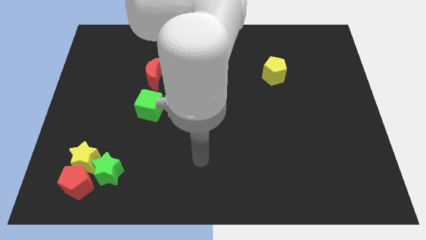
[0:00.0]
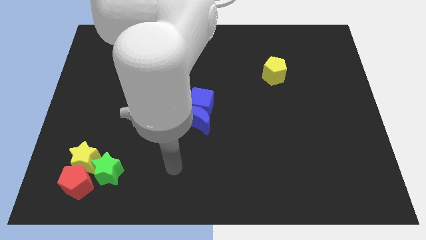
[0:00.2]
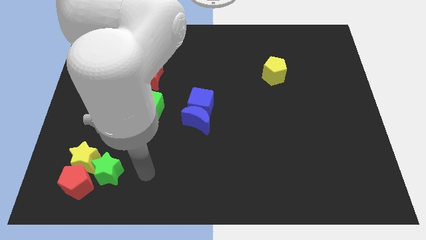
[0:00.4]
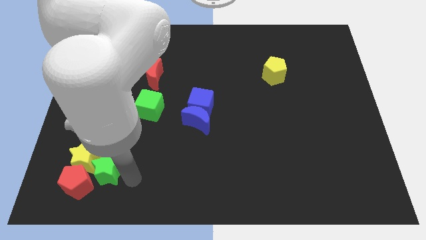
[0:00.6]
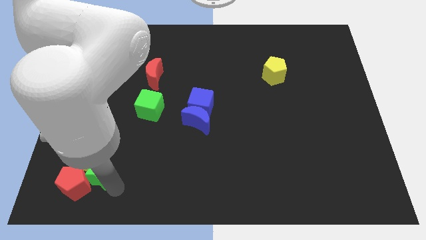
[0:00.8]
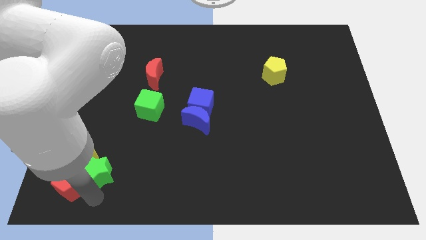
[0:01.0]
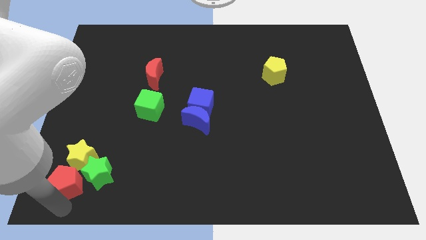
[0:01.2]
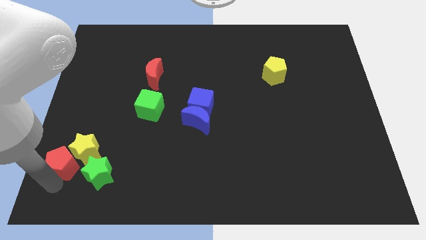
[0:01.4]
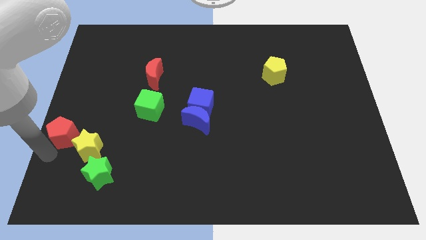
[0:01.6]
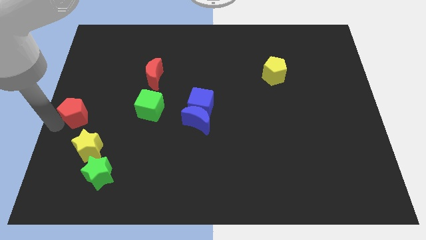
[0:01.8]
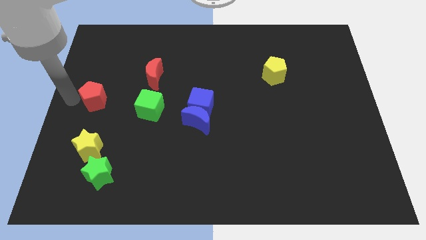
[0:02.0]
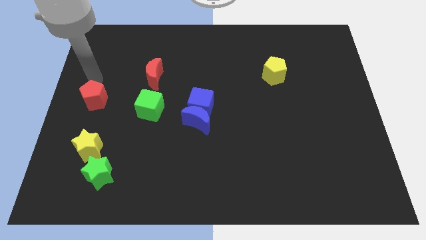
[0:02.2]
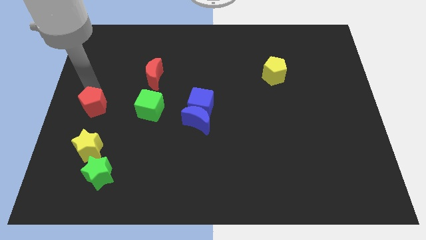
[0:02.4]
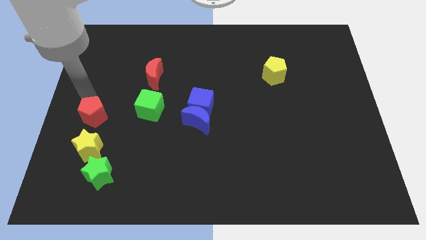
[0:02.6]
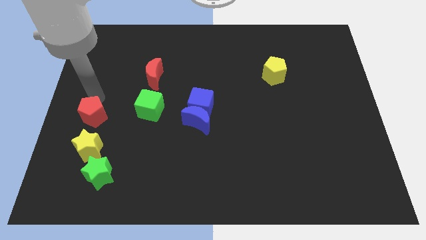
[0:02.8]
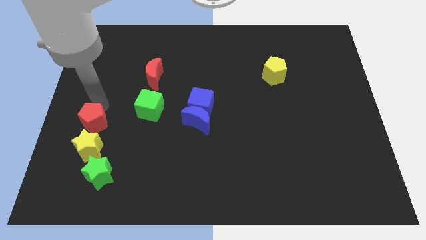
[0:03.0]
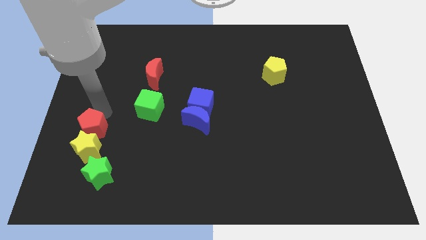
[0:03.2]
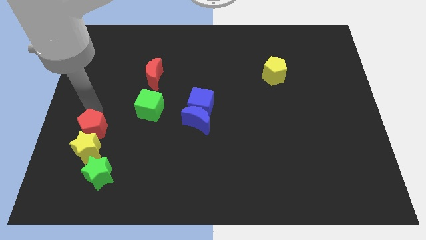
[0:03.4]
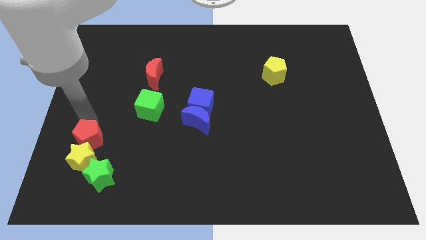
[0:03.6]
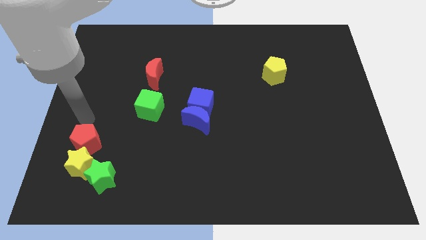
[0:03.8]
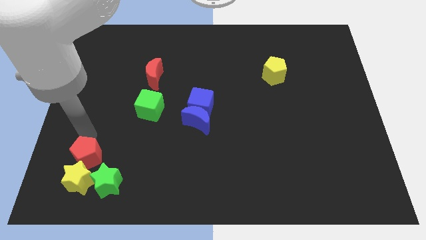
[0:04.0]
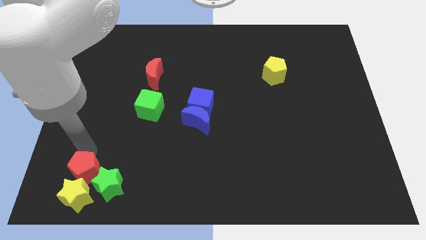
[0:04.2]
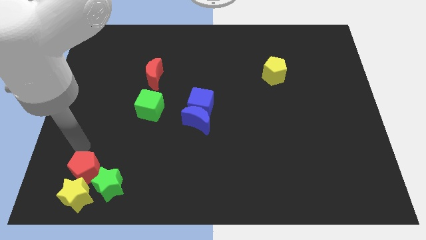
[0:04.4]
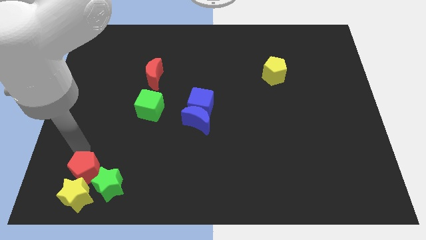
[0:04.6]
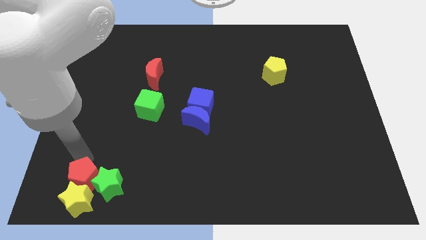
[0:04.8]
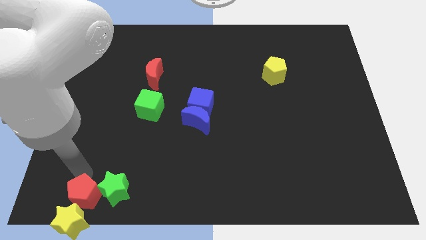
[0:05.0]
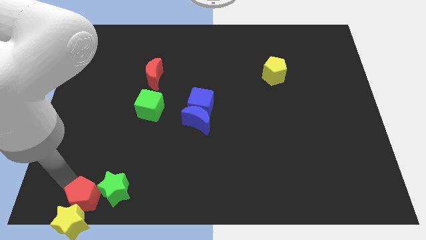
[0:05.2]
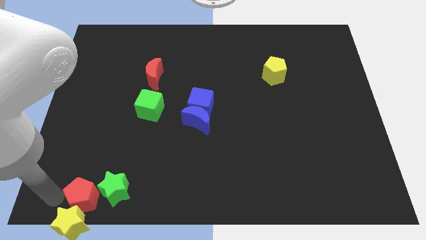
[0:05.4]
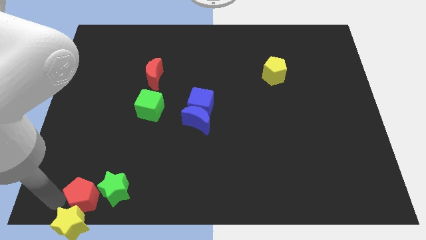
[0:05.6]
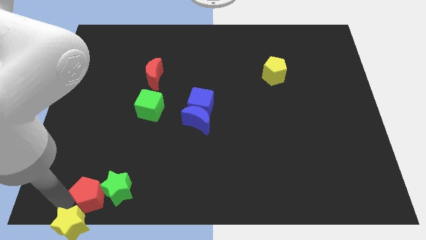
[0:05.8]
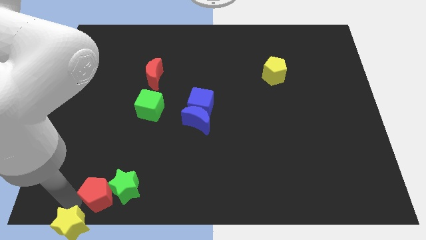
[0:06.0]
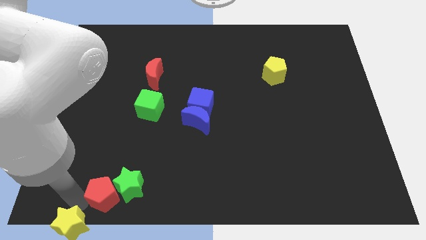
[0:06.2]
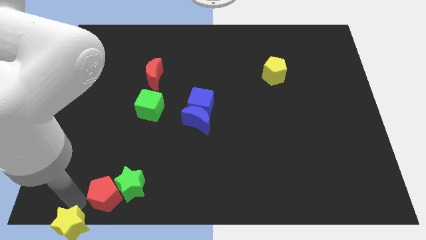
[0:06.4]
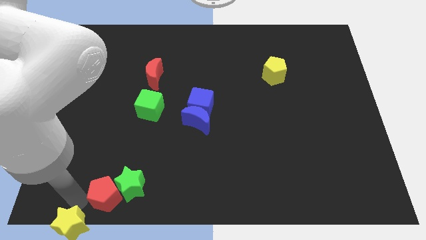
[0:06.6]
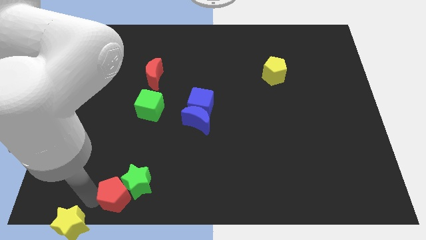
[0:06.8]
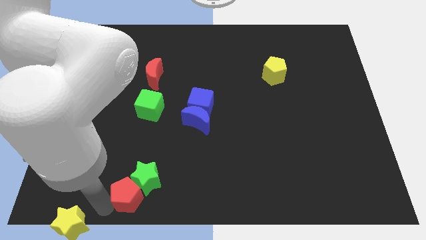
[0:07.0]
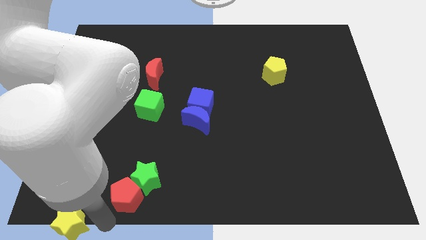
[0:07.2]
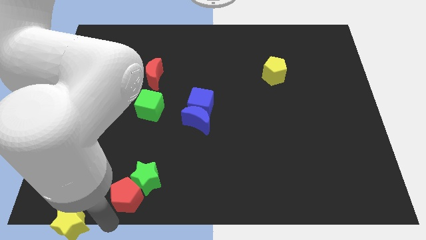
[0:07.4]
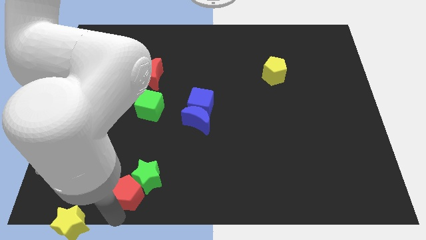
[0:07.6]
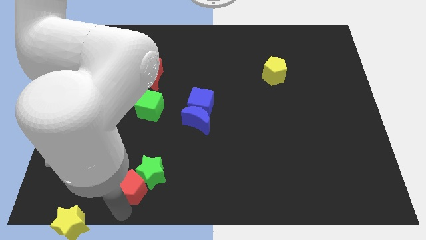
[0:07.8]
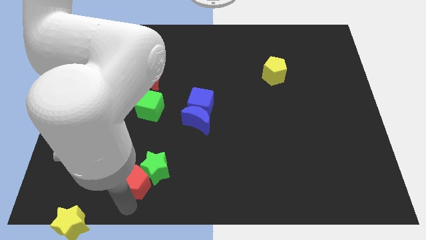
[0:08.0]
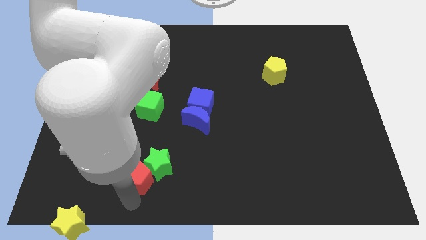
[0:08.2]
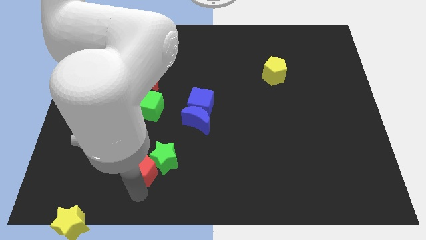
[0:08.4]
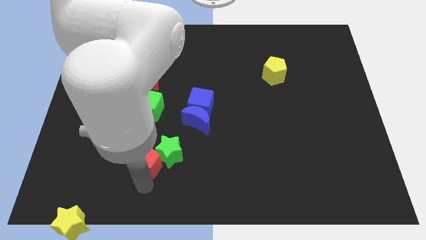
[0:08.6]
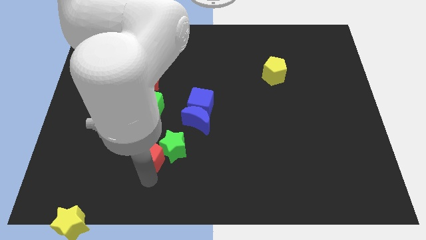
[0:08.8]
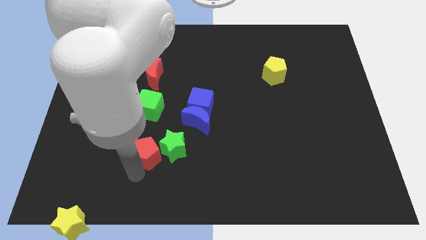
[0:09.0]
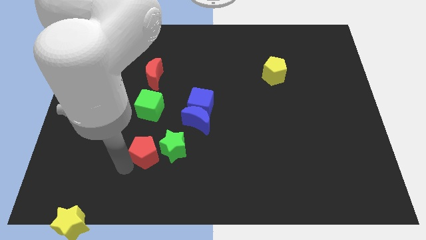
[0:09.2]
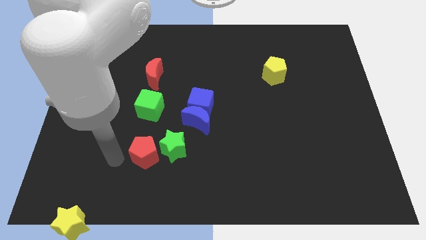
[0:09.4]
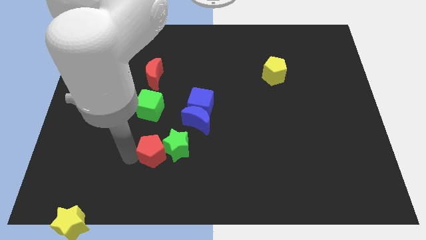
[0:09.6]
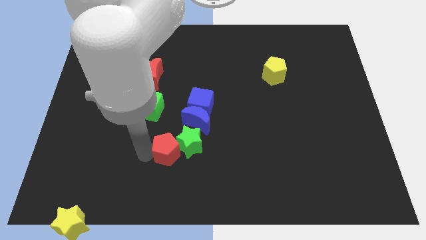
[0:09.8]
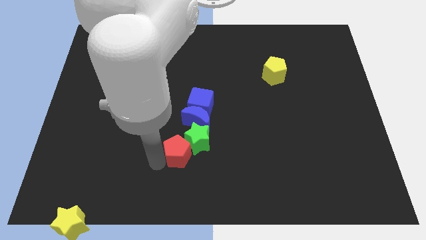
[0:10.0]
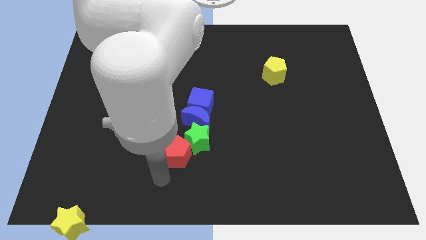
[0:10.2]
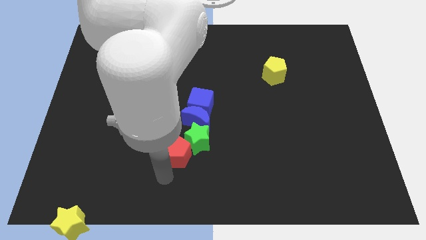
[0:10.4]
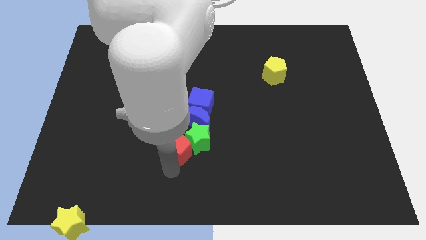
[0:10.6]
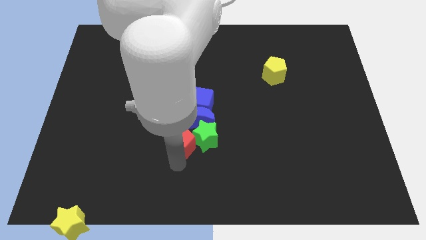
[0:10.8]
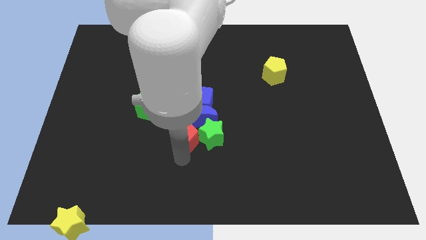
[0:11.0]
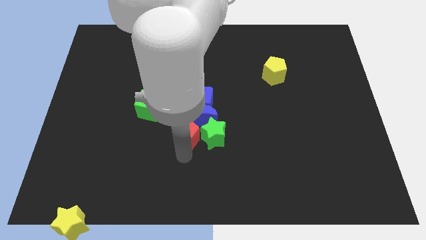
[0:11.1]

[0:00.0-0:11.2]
push the red pentagon next to the blue moon

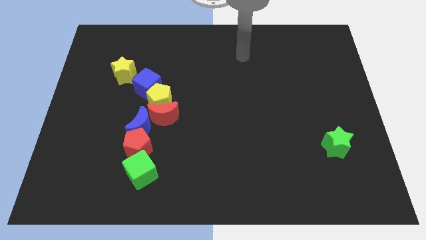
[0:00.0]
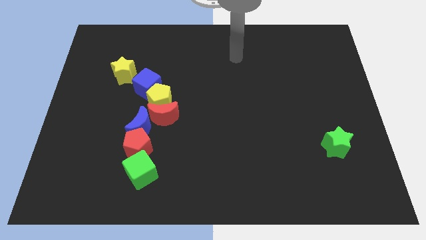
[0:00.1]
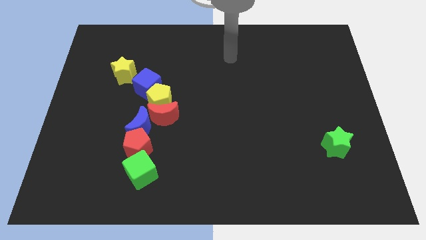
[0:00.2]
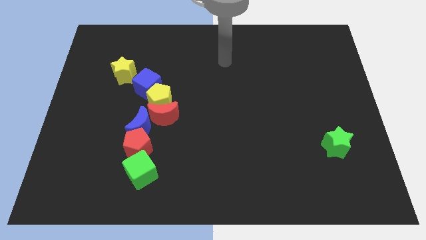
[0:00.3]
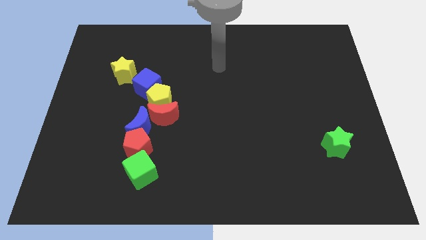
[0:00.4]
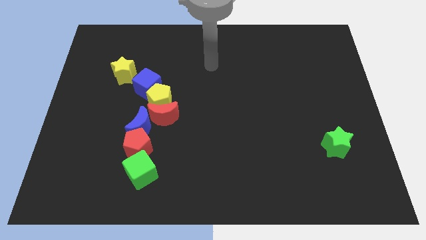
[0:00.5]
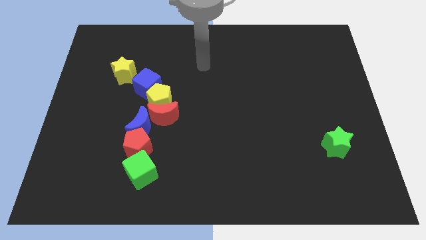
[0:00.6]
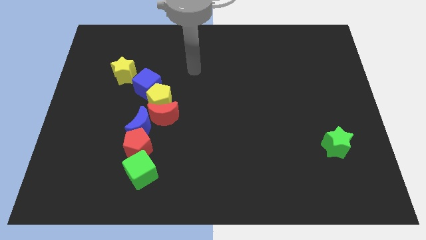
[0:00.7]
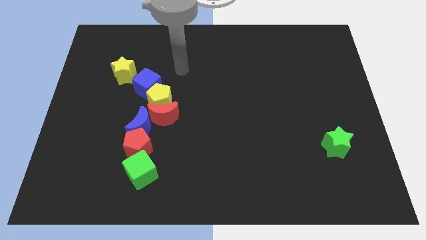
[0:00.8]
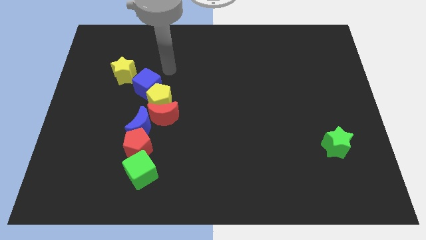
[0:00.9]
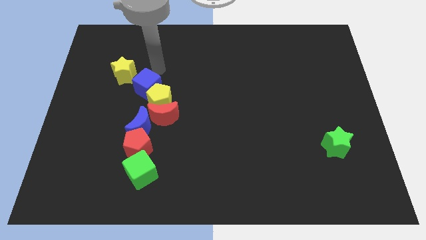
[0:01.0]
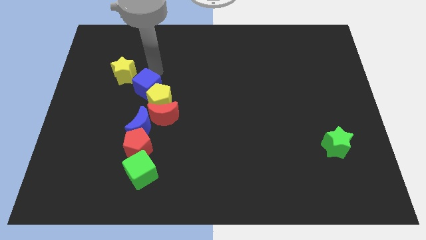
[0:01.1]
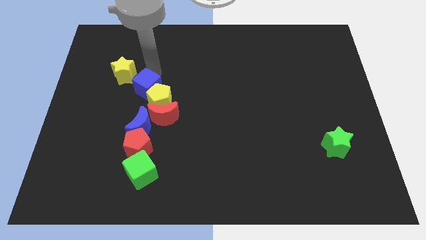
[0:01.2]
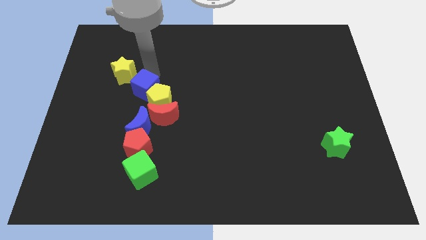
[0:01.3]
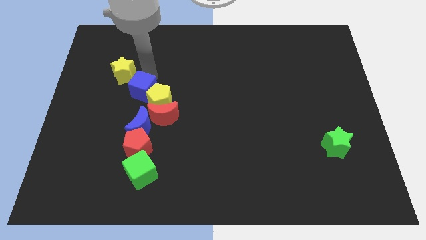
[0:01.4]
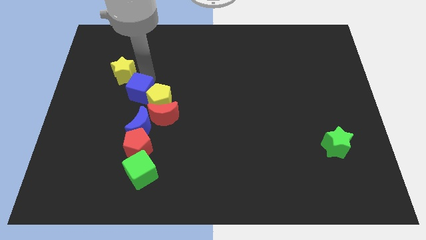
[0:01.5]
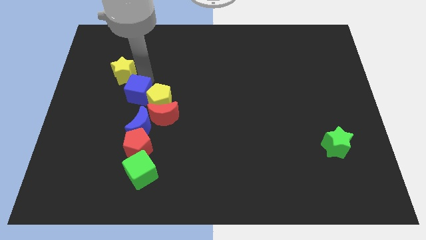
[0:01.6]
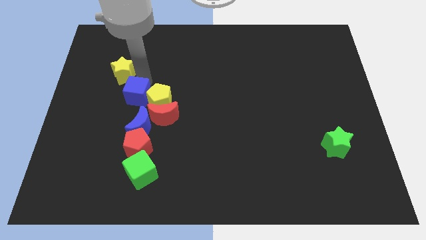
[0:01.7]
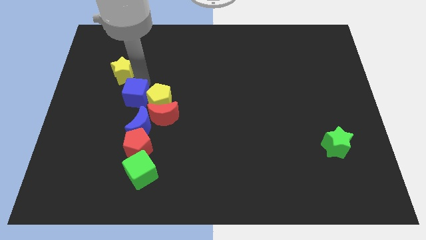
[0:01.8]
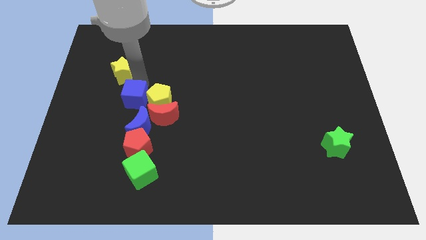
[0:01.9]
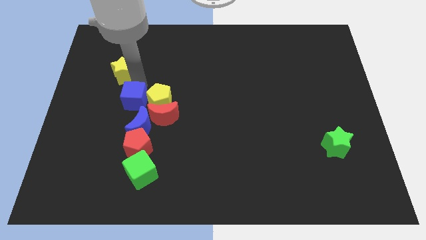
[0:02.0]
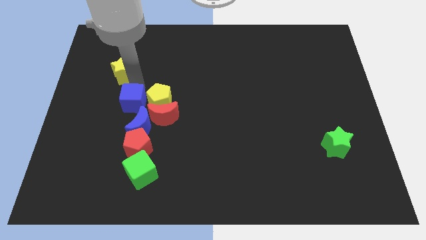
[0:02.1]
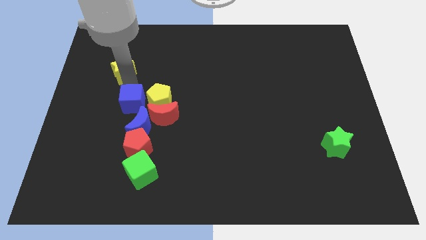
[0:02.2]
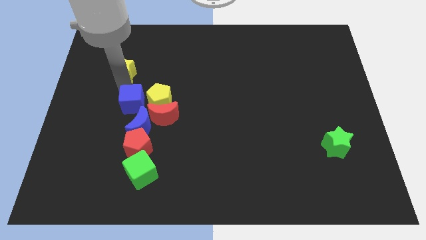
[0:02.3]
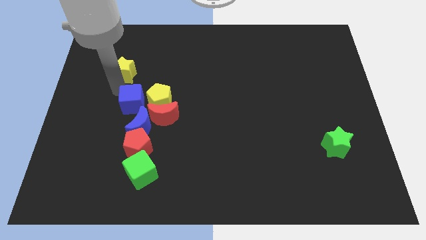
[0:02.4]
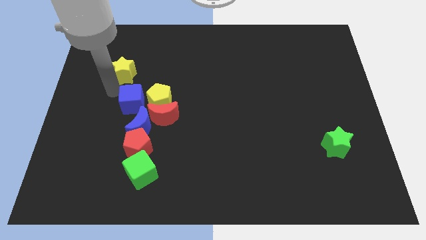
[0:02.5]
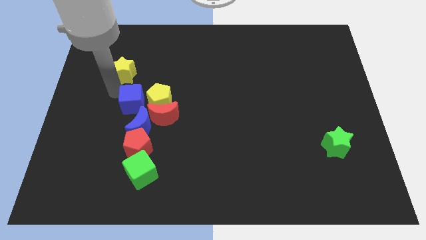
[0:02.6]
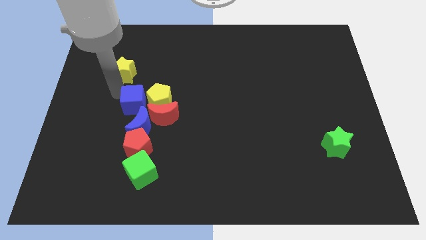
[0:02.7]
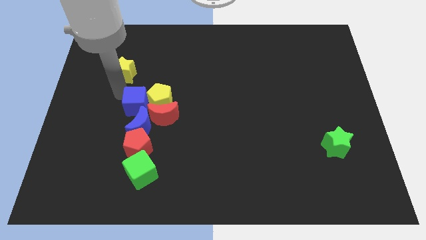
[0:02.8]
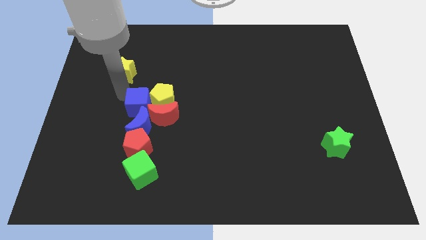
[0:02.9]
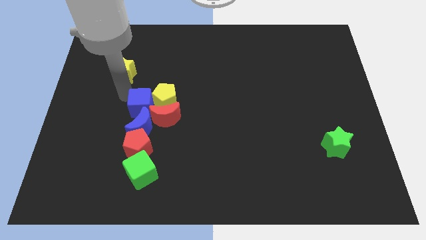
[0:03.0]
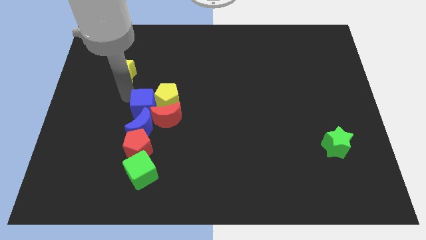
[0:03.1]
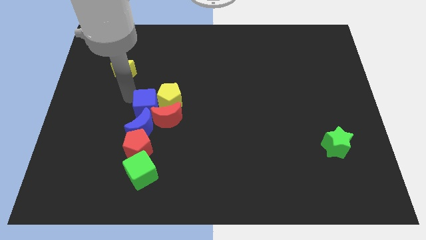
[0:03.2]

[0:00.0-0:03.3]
put the blue cube close to the red moon
